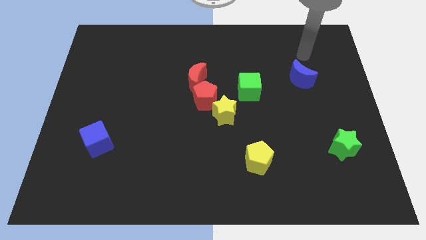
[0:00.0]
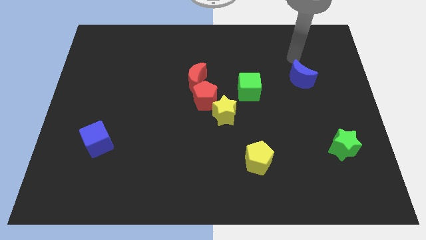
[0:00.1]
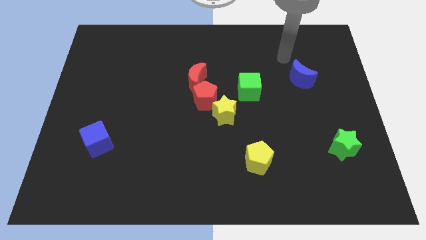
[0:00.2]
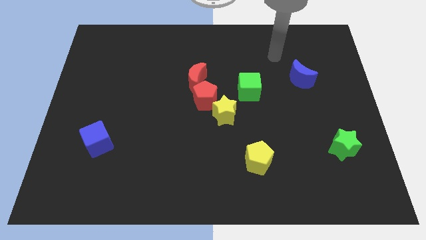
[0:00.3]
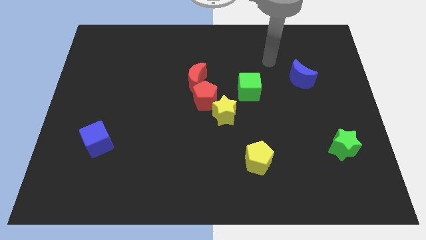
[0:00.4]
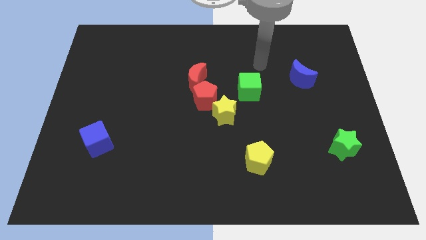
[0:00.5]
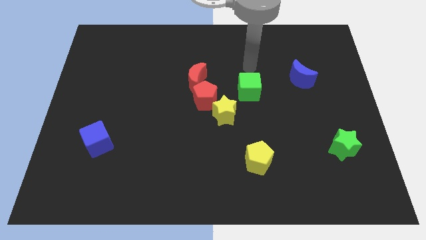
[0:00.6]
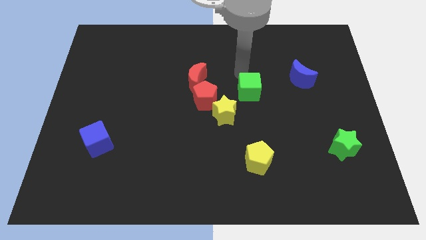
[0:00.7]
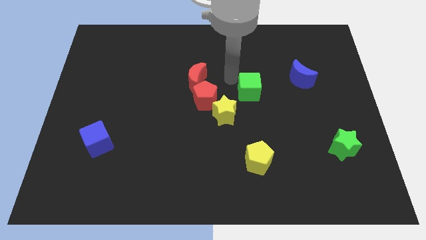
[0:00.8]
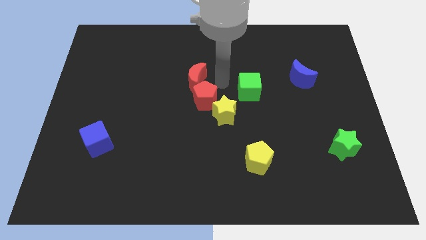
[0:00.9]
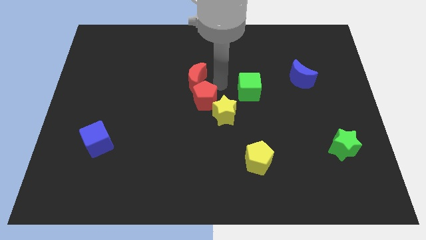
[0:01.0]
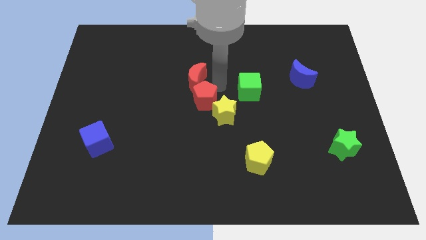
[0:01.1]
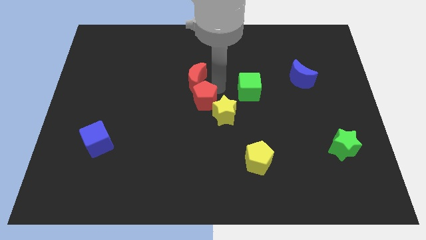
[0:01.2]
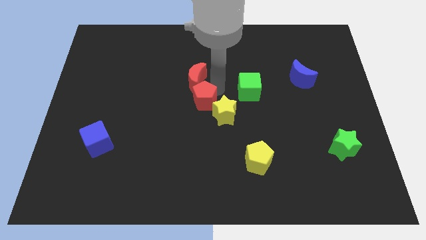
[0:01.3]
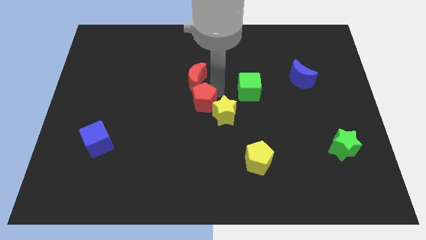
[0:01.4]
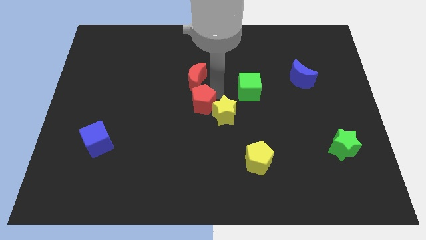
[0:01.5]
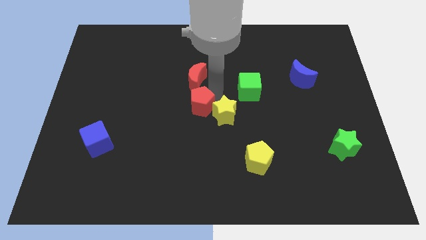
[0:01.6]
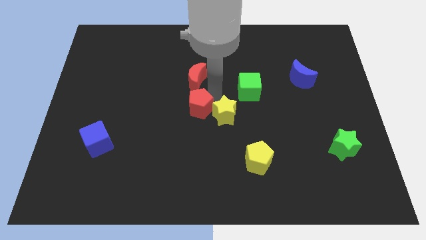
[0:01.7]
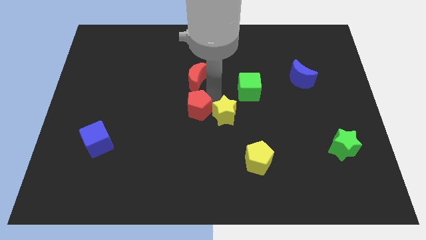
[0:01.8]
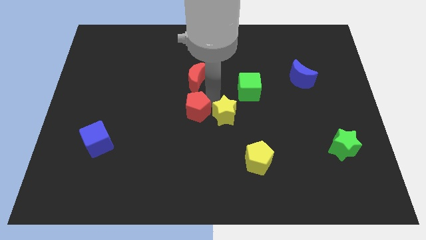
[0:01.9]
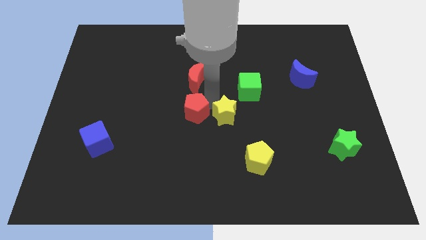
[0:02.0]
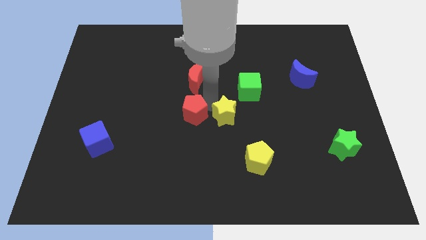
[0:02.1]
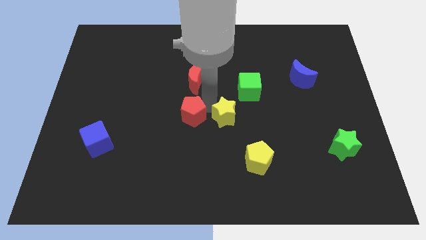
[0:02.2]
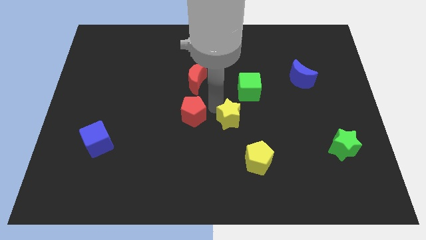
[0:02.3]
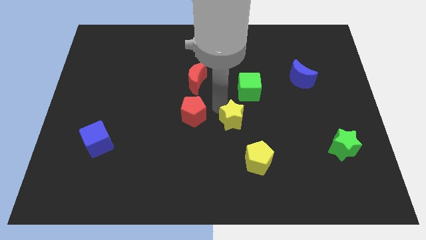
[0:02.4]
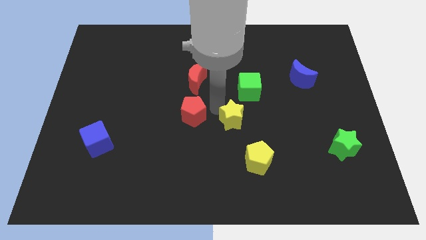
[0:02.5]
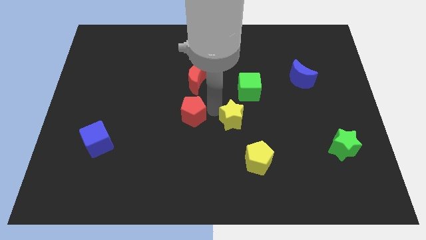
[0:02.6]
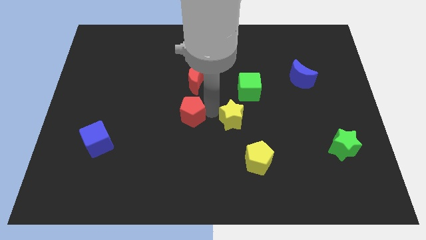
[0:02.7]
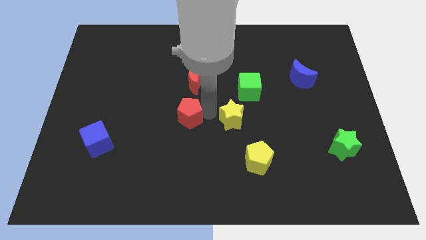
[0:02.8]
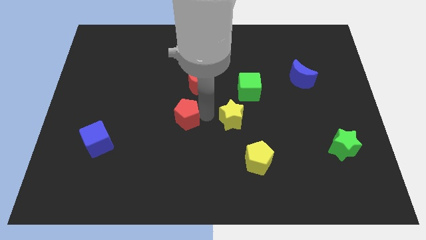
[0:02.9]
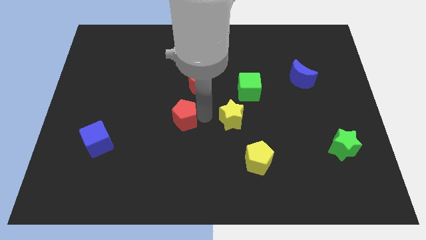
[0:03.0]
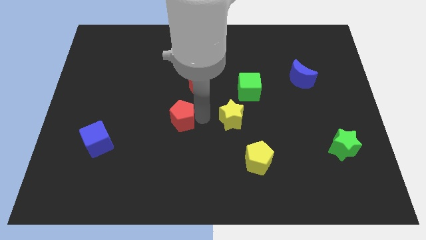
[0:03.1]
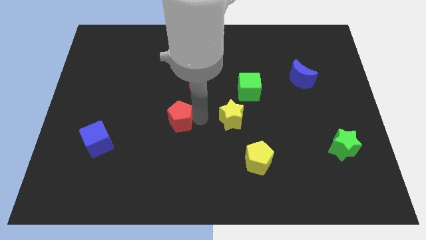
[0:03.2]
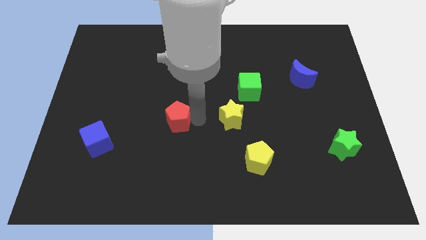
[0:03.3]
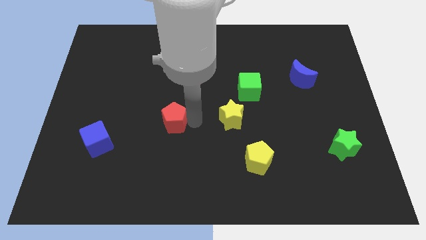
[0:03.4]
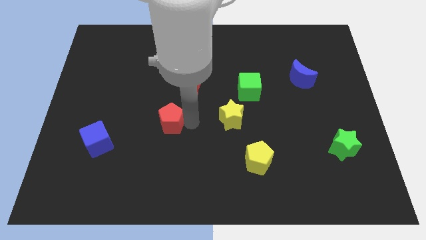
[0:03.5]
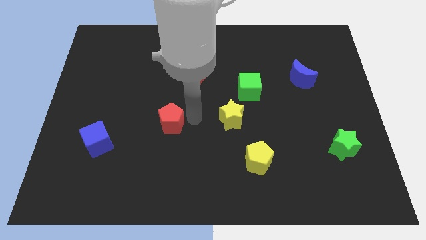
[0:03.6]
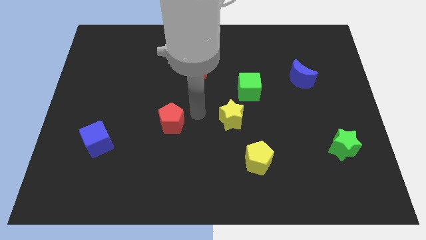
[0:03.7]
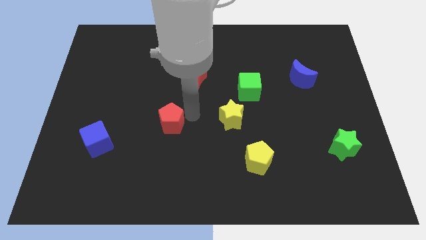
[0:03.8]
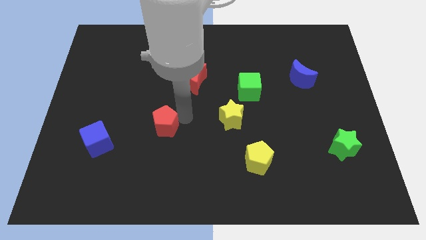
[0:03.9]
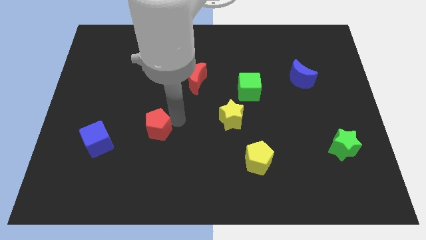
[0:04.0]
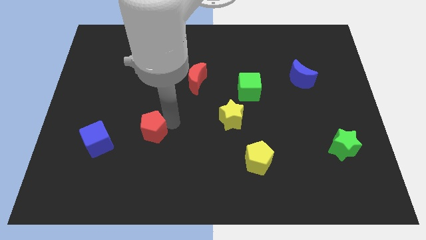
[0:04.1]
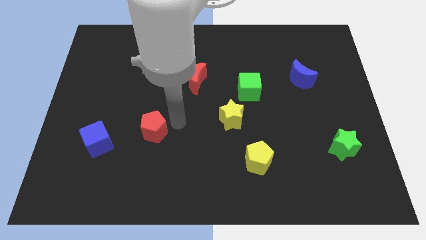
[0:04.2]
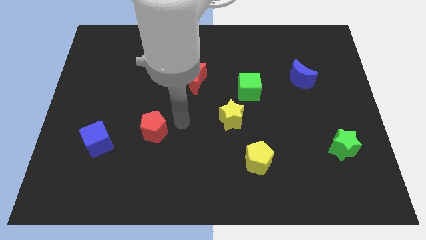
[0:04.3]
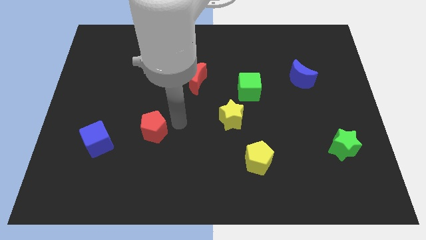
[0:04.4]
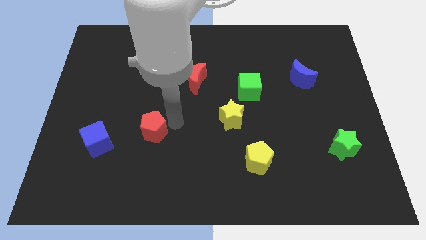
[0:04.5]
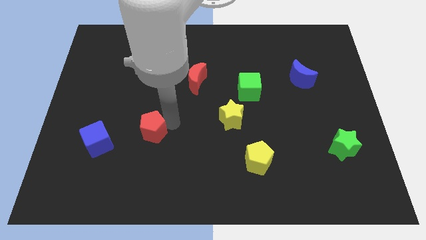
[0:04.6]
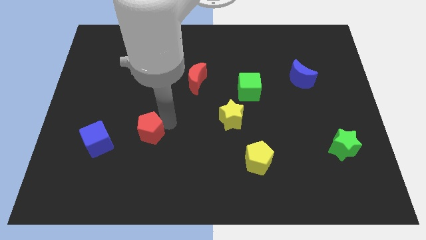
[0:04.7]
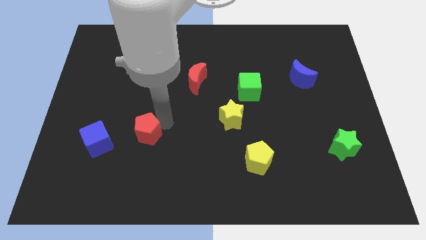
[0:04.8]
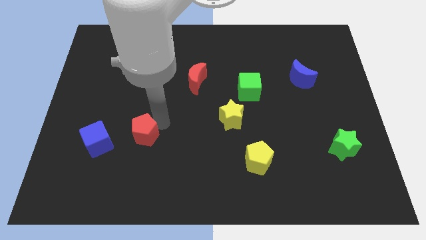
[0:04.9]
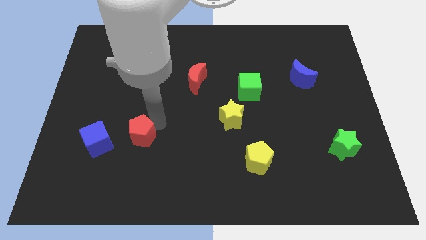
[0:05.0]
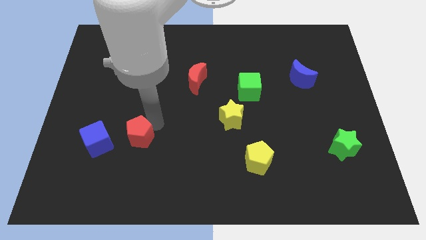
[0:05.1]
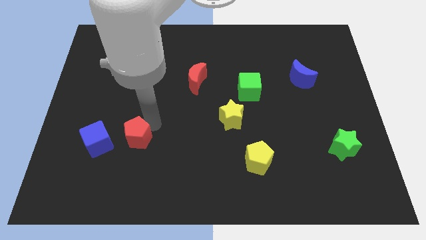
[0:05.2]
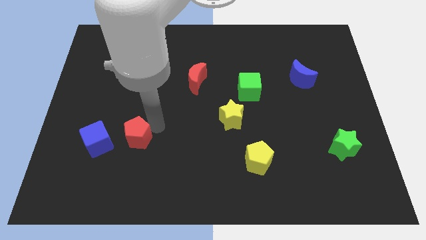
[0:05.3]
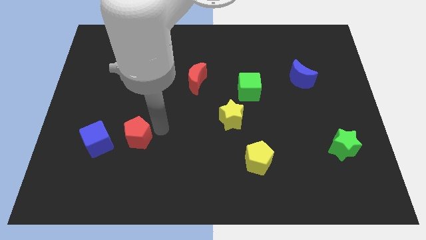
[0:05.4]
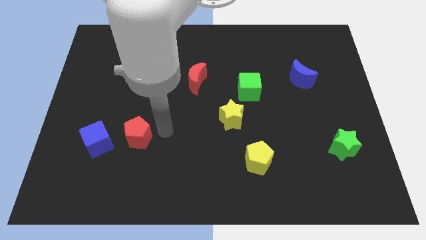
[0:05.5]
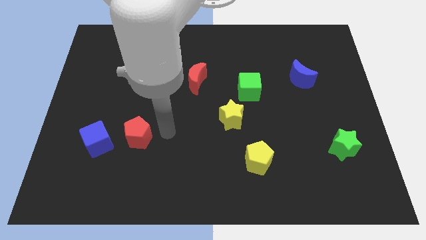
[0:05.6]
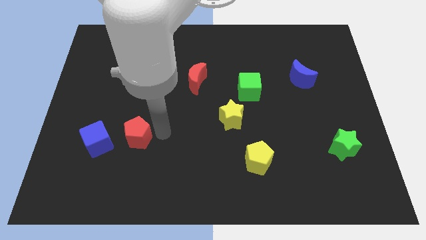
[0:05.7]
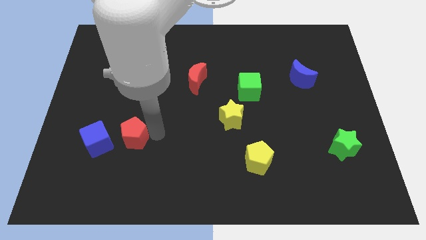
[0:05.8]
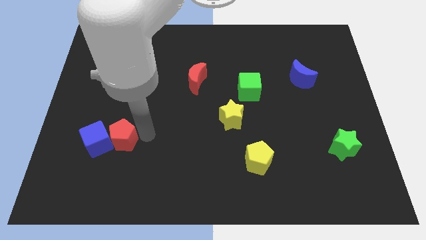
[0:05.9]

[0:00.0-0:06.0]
put the red pentagon next to the blue cube

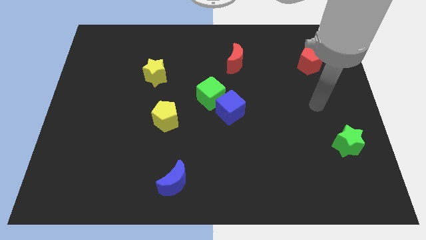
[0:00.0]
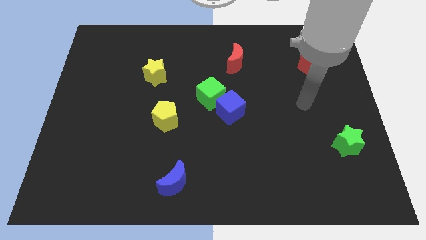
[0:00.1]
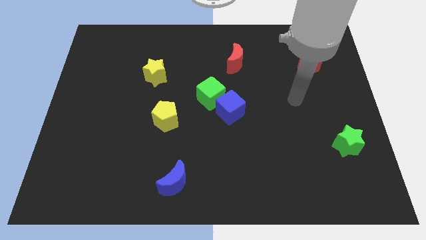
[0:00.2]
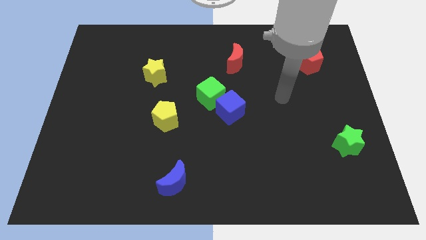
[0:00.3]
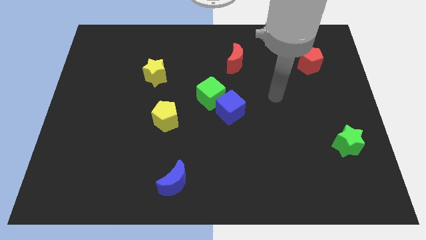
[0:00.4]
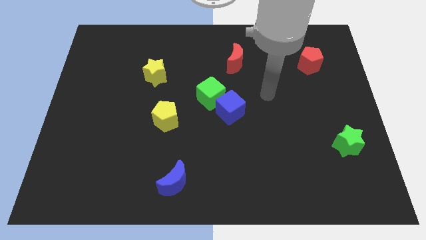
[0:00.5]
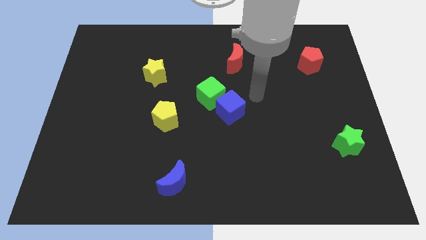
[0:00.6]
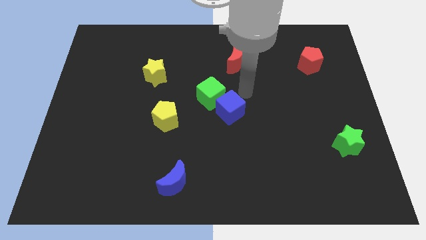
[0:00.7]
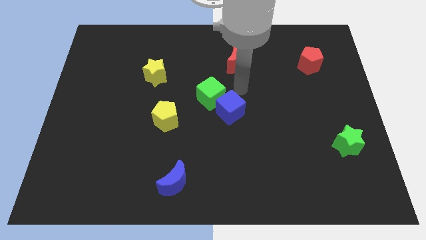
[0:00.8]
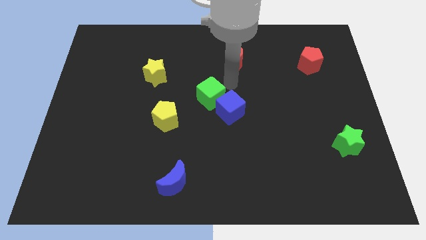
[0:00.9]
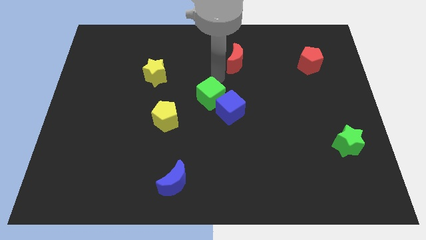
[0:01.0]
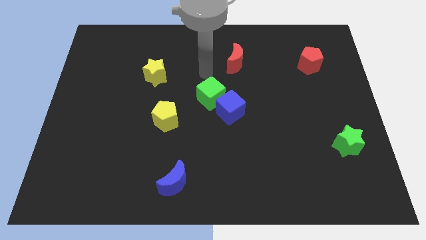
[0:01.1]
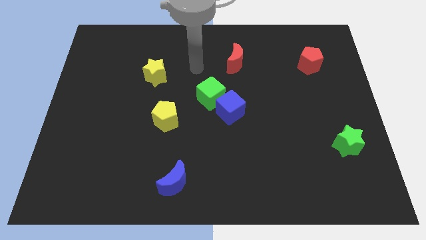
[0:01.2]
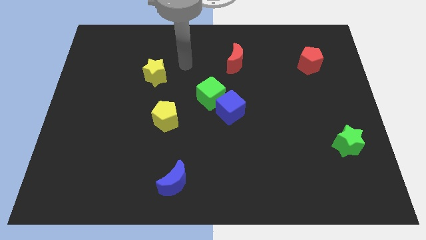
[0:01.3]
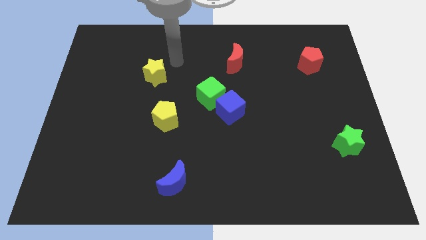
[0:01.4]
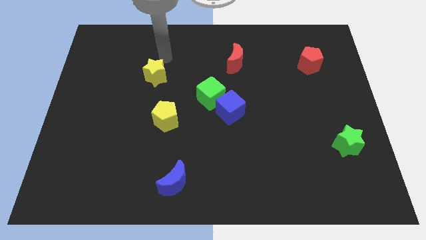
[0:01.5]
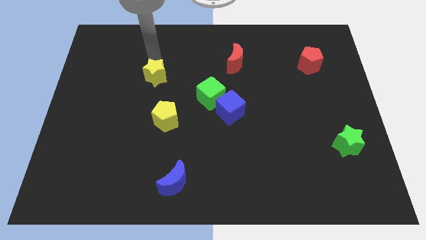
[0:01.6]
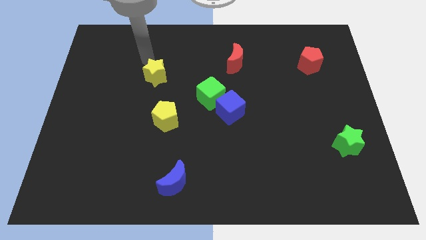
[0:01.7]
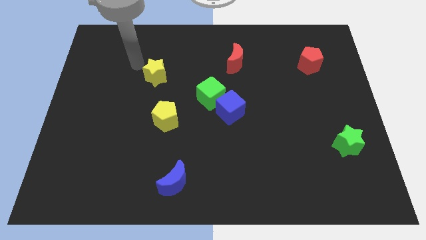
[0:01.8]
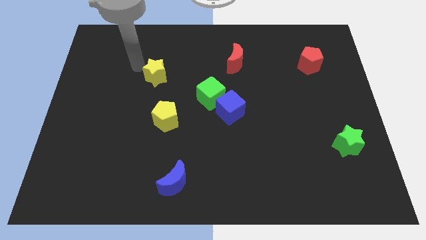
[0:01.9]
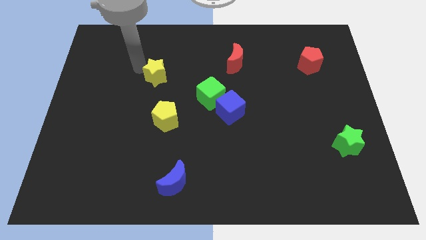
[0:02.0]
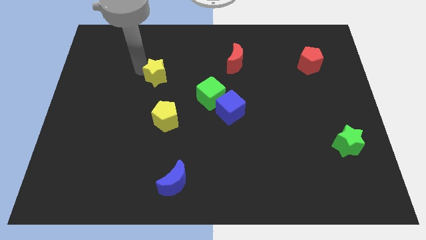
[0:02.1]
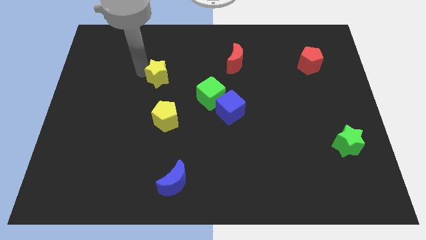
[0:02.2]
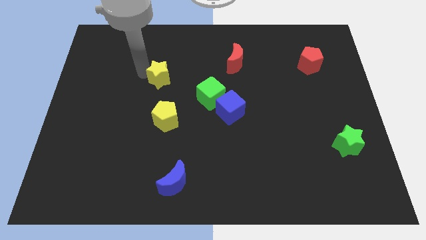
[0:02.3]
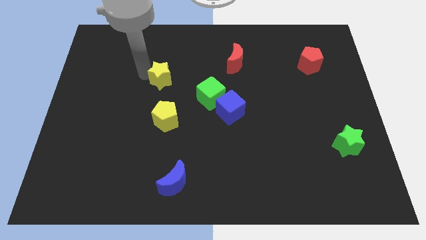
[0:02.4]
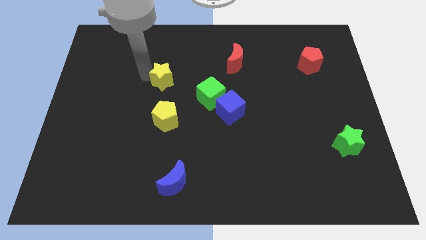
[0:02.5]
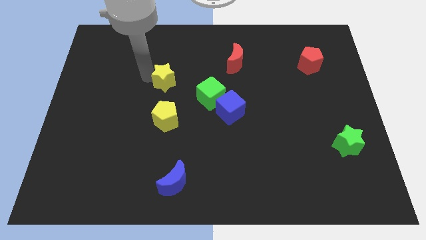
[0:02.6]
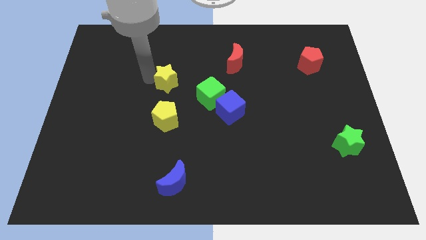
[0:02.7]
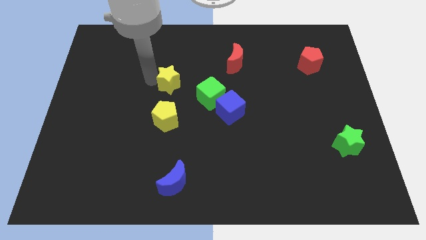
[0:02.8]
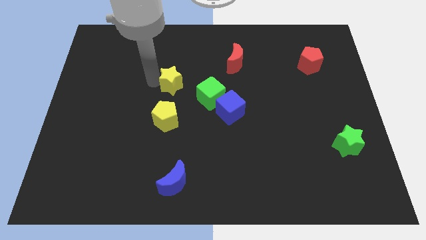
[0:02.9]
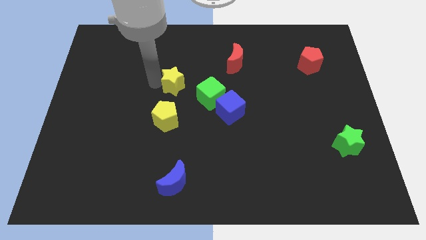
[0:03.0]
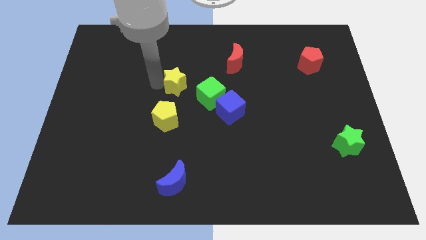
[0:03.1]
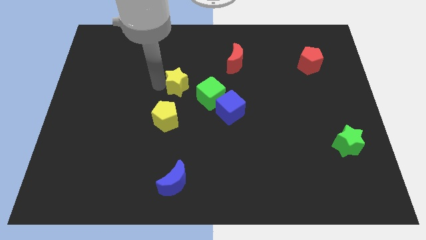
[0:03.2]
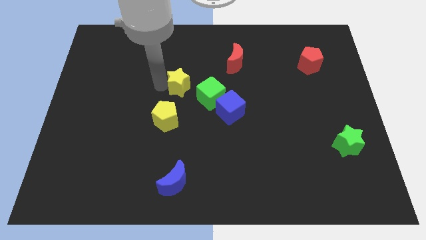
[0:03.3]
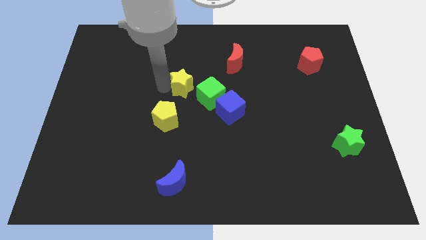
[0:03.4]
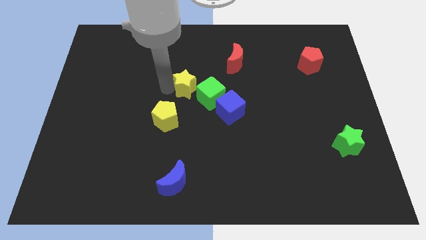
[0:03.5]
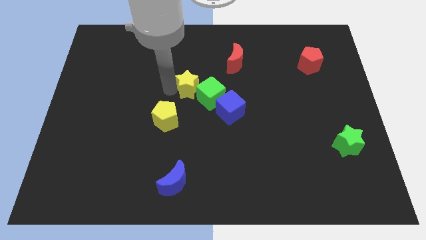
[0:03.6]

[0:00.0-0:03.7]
push the yellow star next to the green cube
